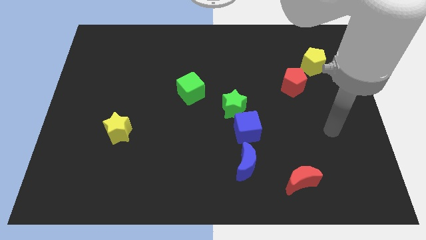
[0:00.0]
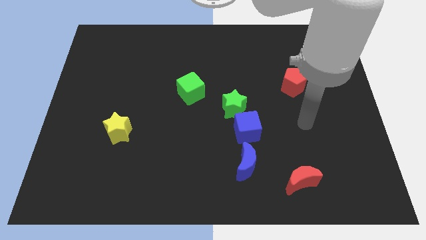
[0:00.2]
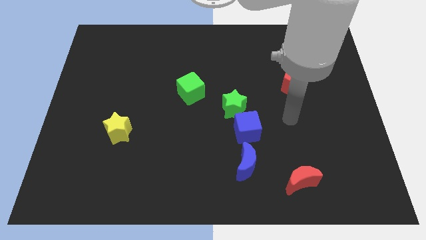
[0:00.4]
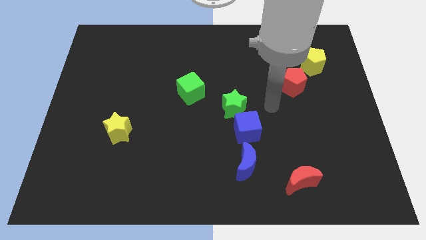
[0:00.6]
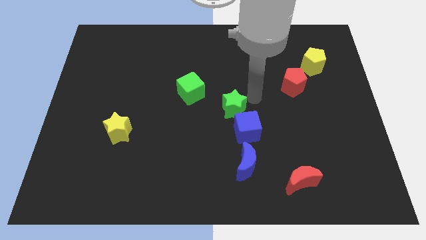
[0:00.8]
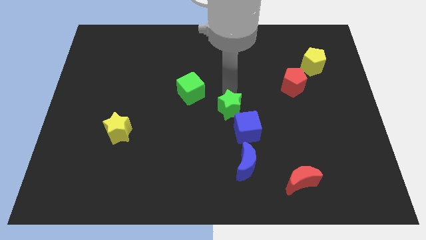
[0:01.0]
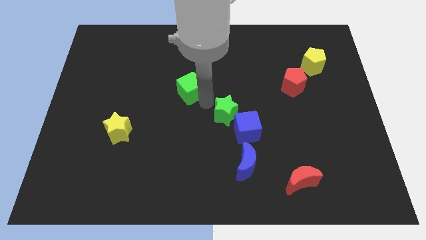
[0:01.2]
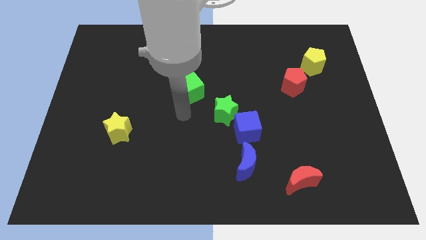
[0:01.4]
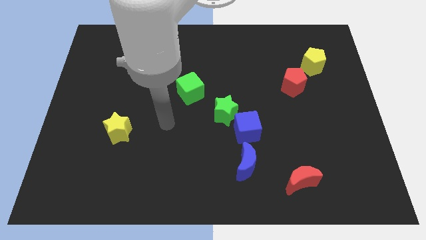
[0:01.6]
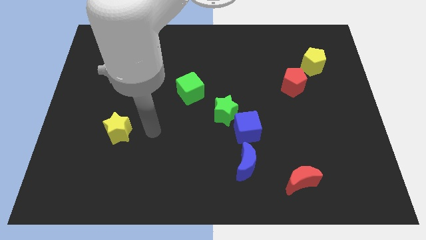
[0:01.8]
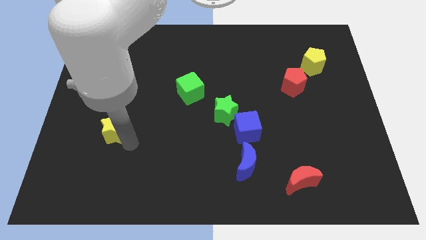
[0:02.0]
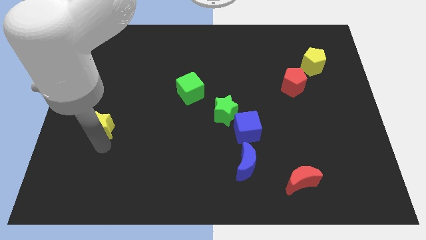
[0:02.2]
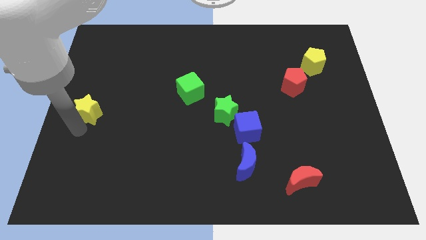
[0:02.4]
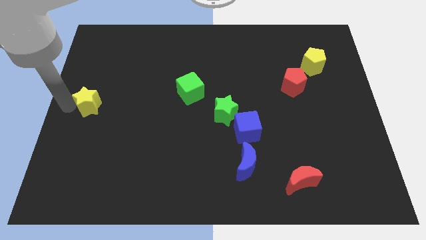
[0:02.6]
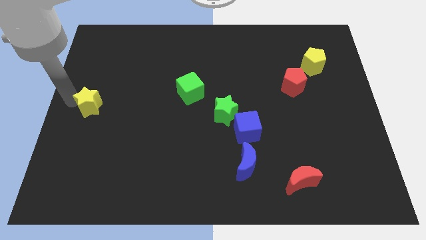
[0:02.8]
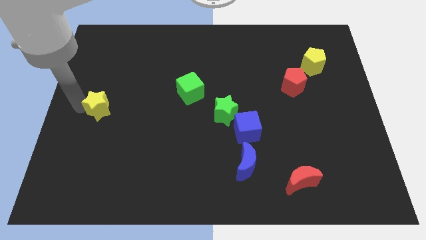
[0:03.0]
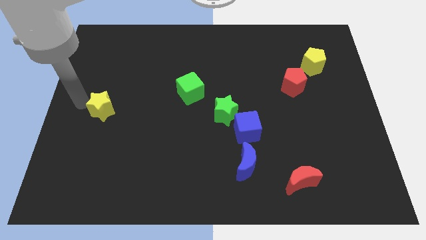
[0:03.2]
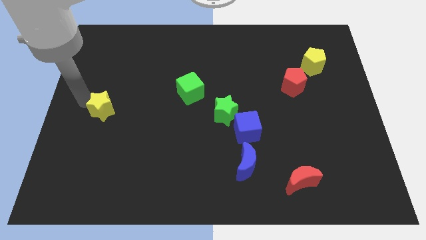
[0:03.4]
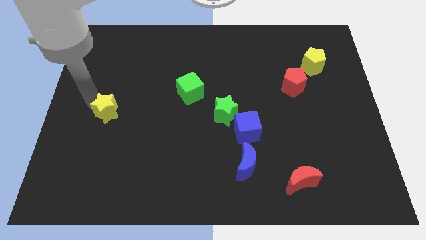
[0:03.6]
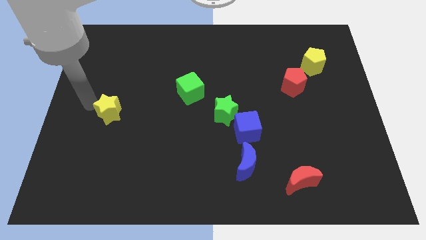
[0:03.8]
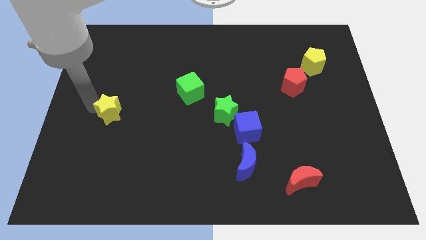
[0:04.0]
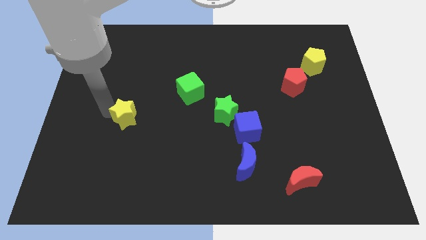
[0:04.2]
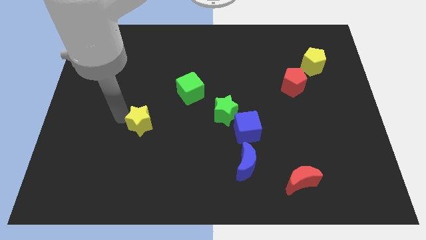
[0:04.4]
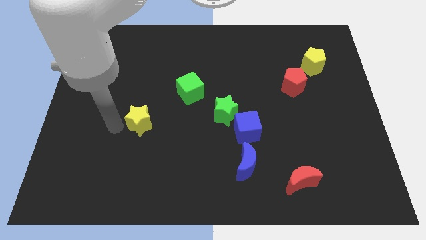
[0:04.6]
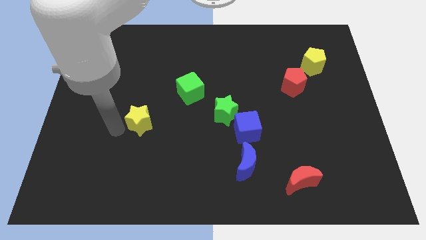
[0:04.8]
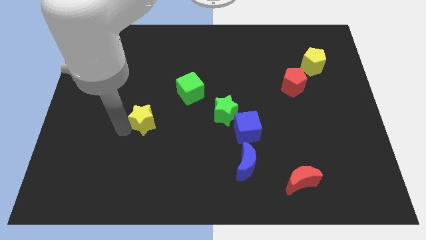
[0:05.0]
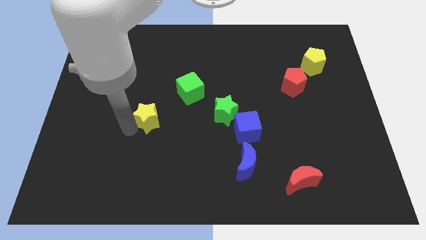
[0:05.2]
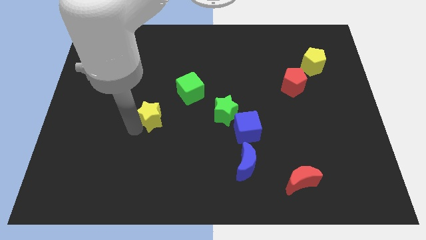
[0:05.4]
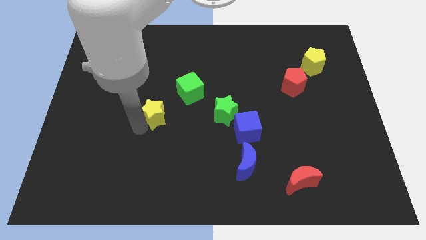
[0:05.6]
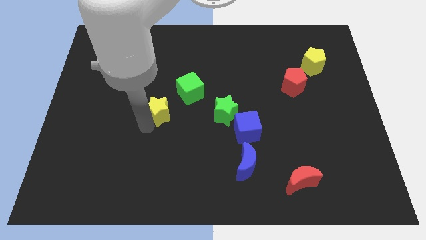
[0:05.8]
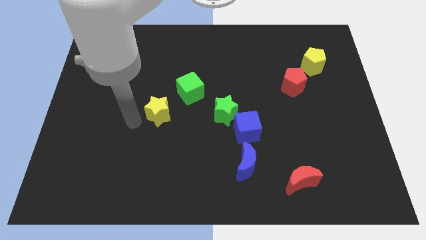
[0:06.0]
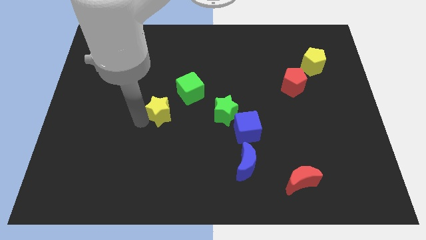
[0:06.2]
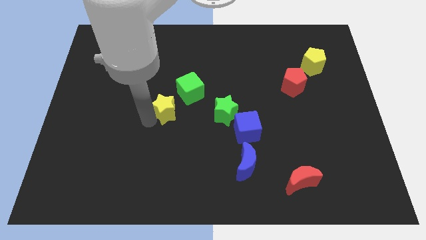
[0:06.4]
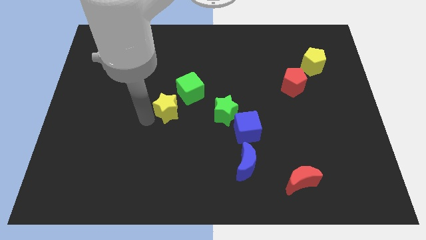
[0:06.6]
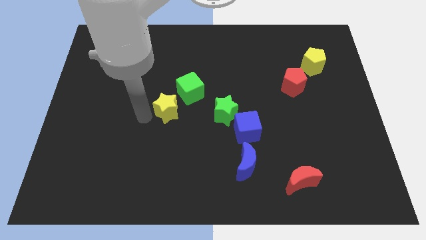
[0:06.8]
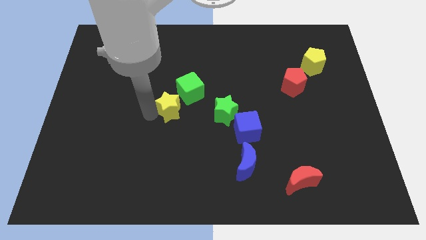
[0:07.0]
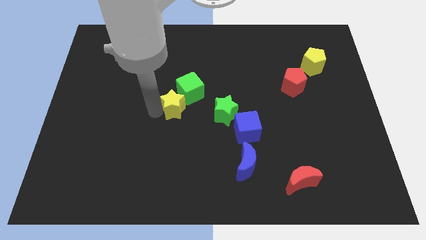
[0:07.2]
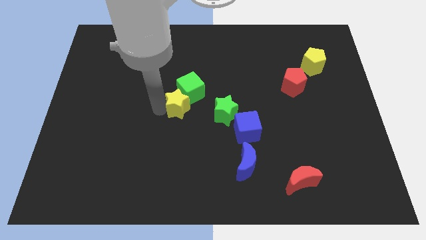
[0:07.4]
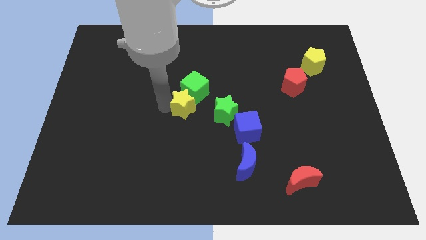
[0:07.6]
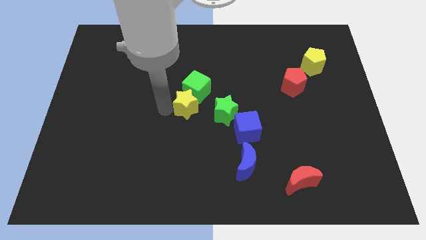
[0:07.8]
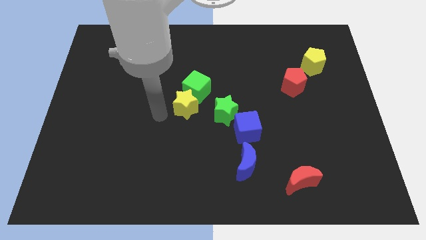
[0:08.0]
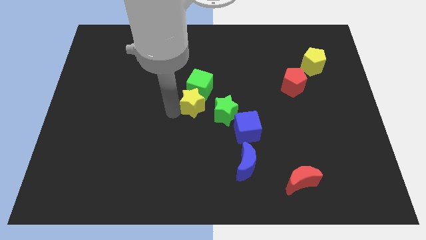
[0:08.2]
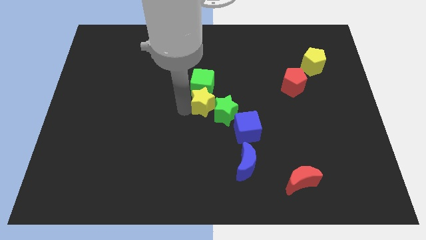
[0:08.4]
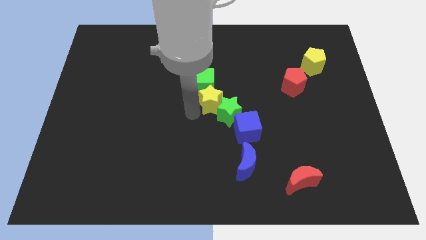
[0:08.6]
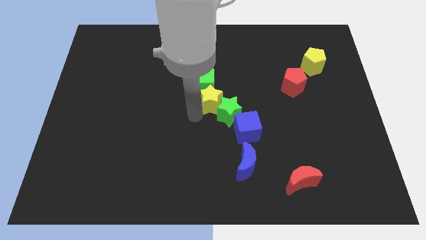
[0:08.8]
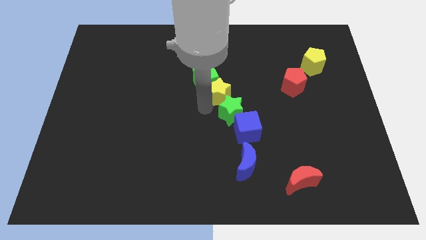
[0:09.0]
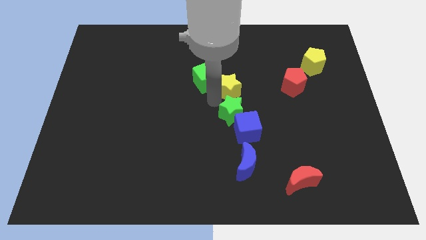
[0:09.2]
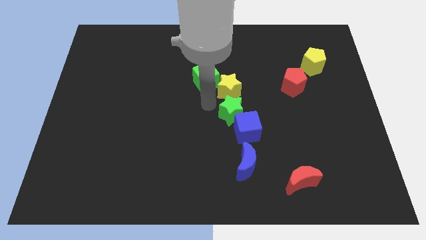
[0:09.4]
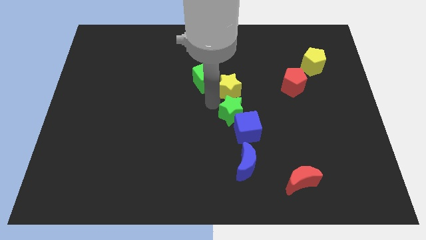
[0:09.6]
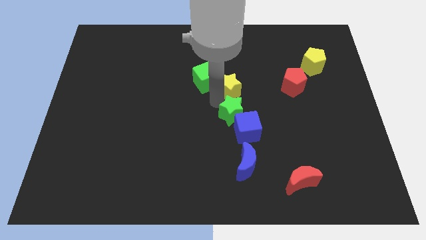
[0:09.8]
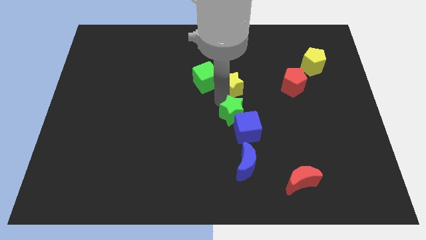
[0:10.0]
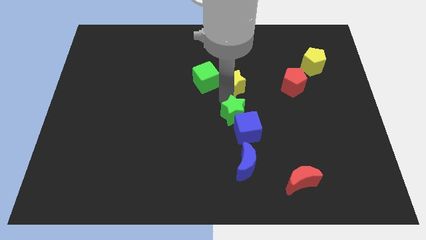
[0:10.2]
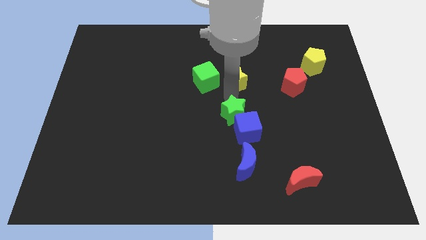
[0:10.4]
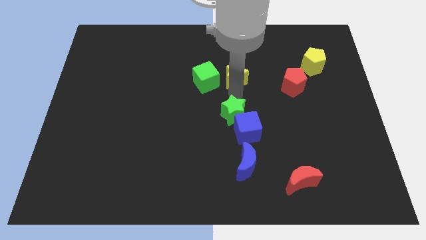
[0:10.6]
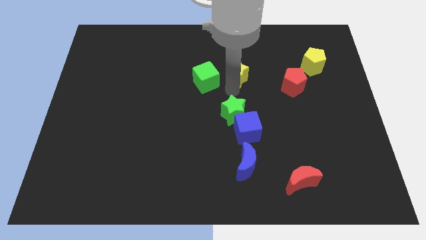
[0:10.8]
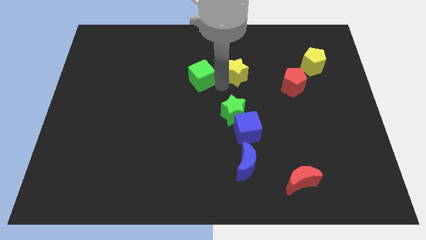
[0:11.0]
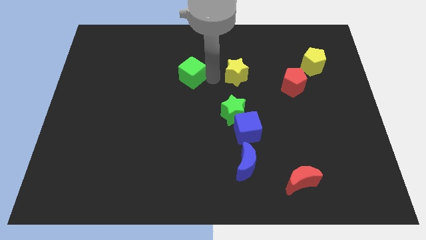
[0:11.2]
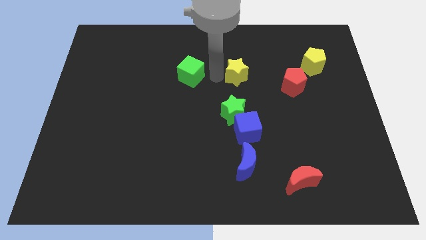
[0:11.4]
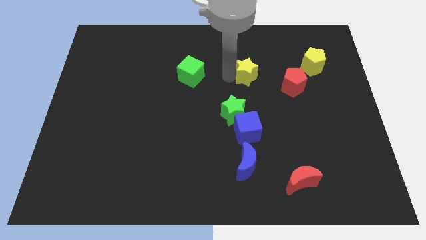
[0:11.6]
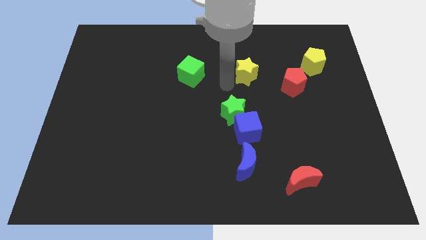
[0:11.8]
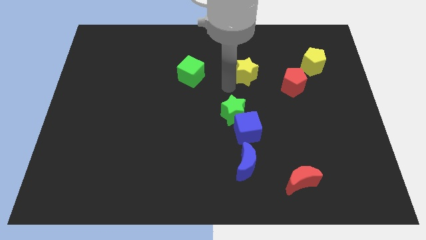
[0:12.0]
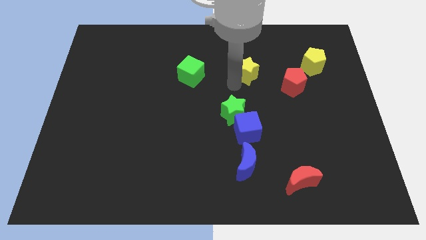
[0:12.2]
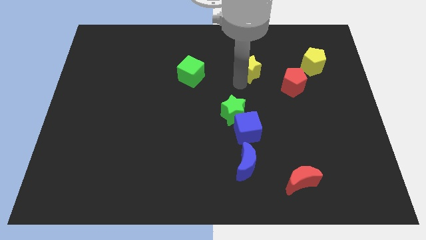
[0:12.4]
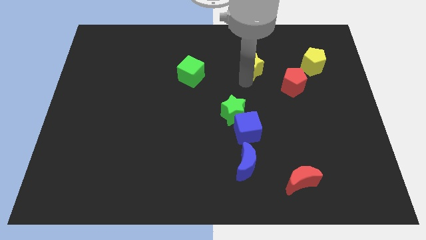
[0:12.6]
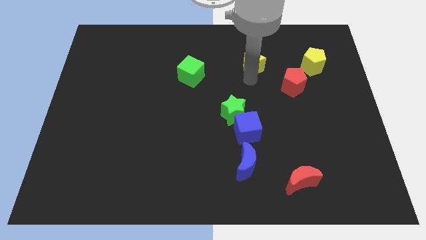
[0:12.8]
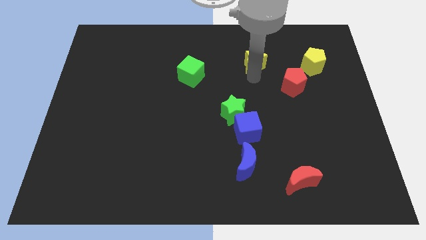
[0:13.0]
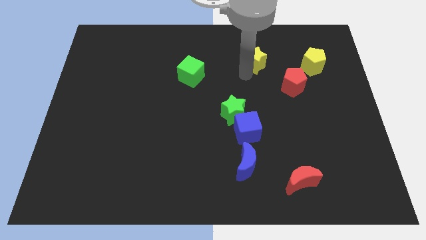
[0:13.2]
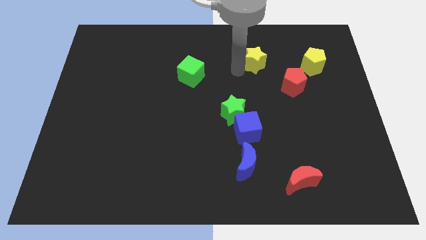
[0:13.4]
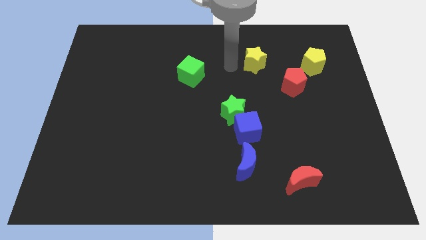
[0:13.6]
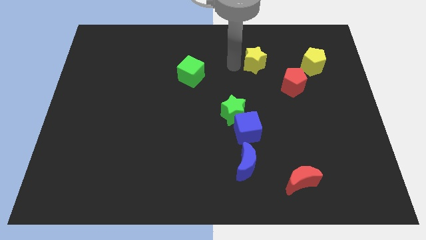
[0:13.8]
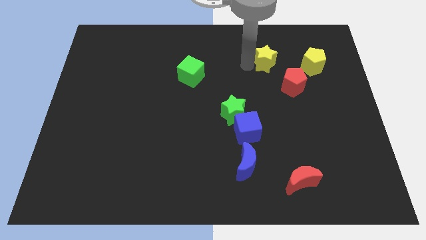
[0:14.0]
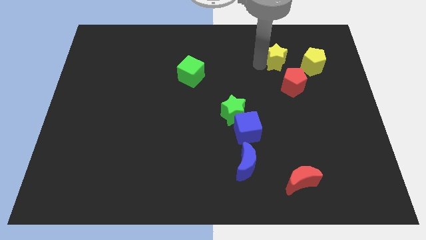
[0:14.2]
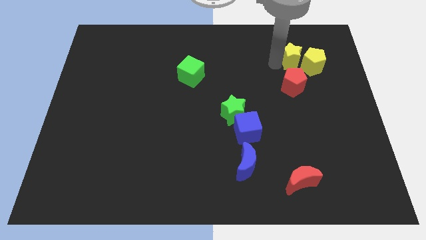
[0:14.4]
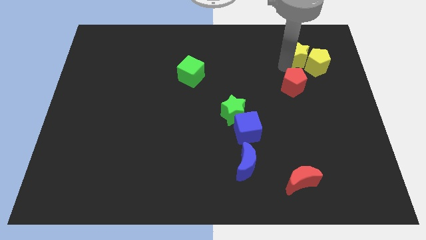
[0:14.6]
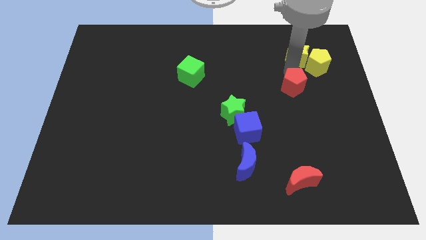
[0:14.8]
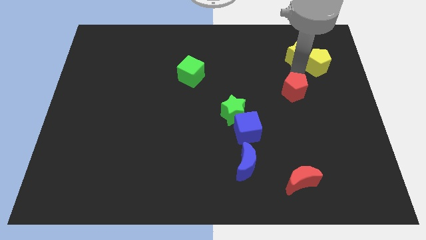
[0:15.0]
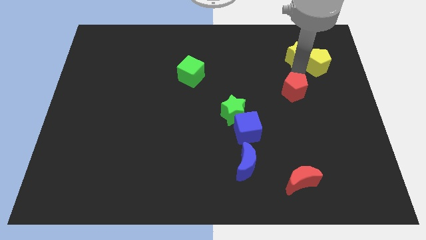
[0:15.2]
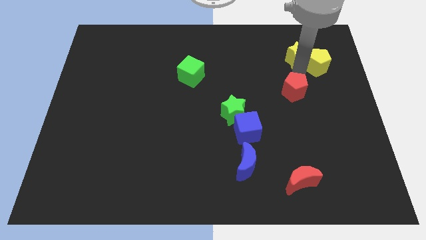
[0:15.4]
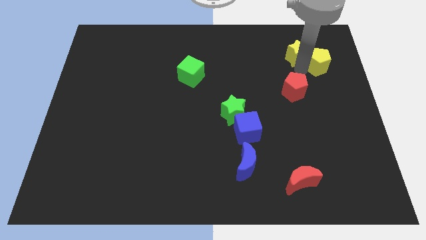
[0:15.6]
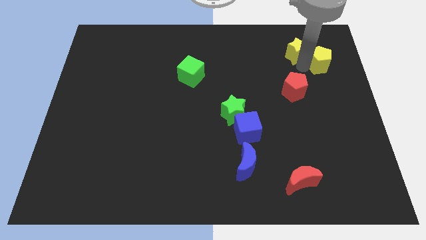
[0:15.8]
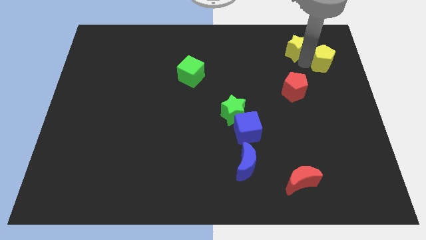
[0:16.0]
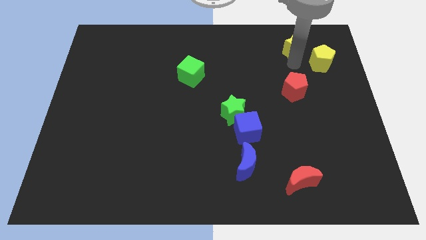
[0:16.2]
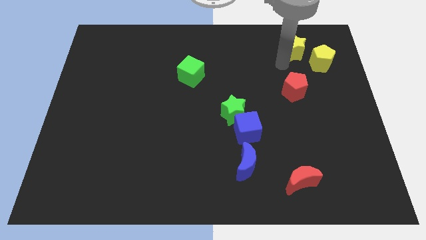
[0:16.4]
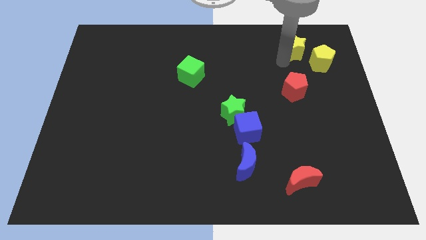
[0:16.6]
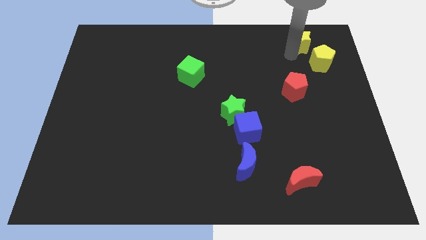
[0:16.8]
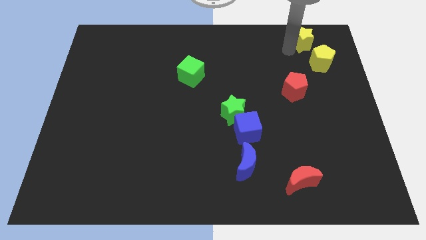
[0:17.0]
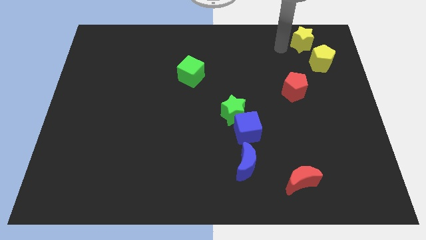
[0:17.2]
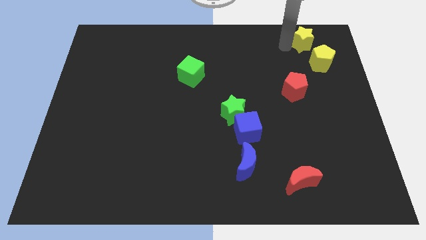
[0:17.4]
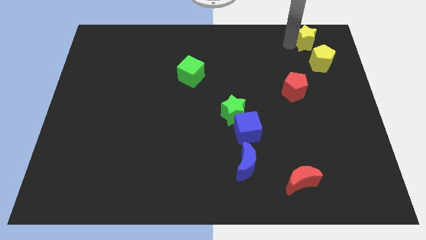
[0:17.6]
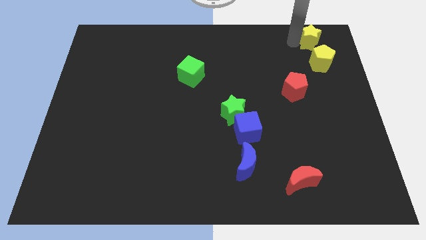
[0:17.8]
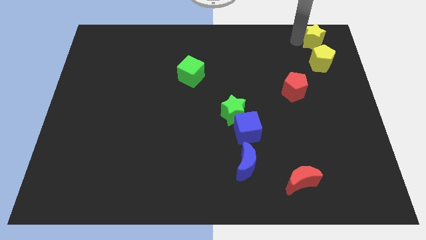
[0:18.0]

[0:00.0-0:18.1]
slide the yellow star to the top right
